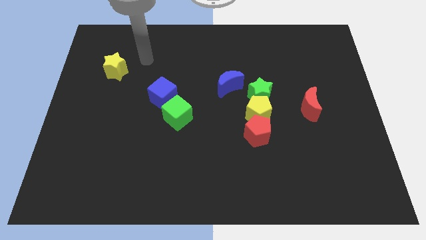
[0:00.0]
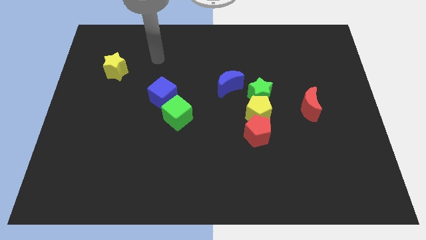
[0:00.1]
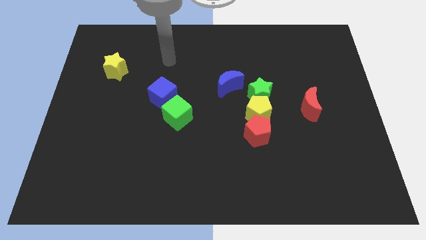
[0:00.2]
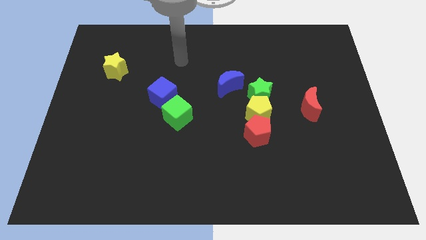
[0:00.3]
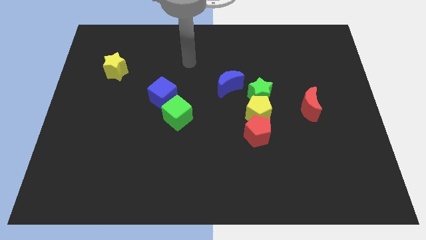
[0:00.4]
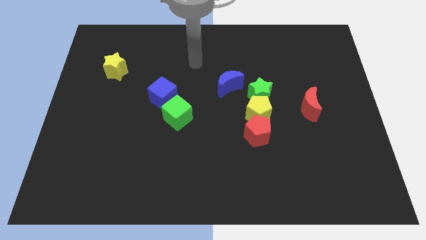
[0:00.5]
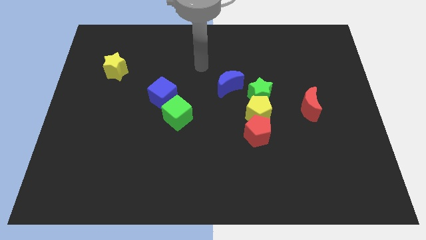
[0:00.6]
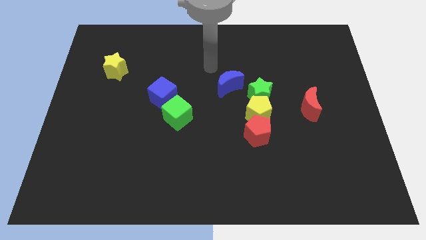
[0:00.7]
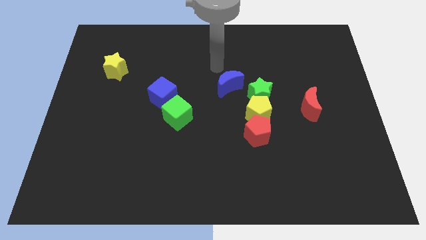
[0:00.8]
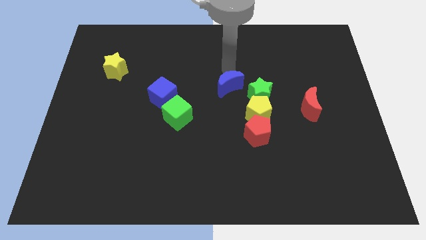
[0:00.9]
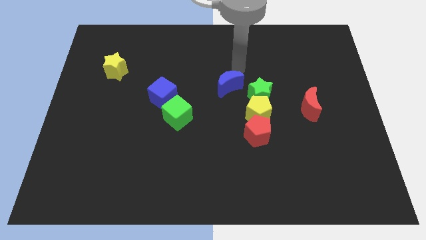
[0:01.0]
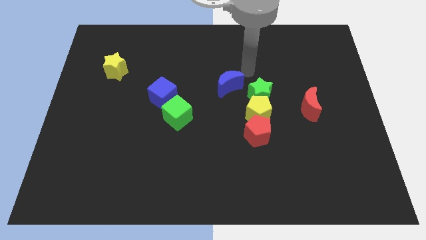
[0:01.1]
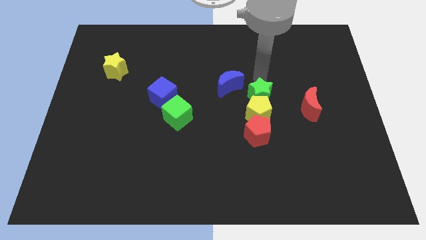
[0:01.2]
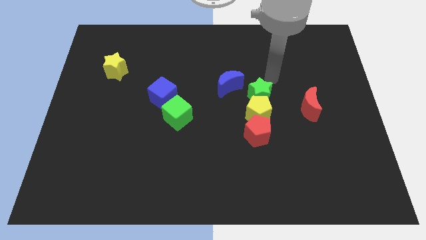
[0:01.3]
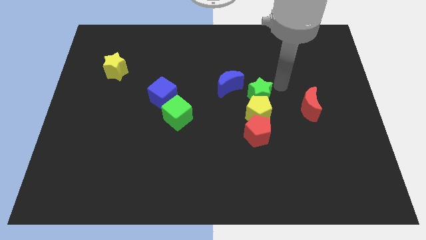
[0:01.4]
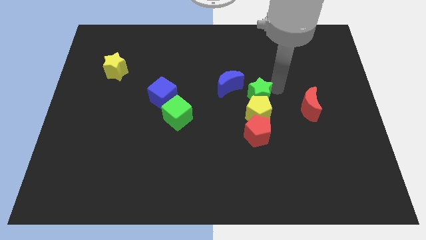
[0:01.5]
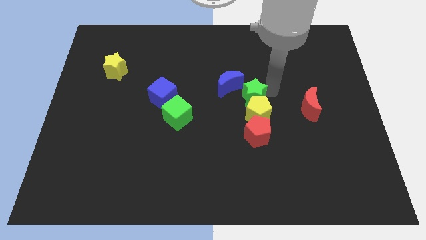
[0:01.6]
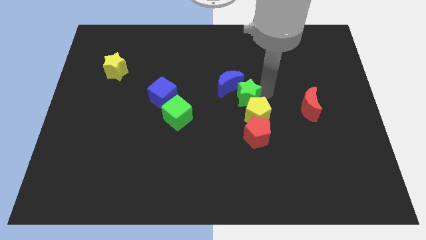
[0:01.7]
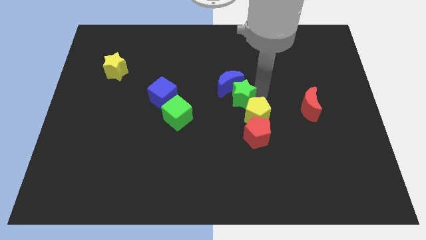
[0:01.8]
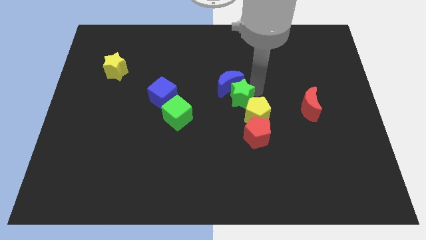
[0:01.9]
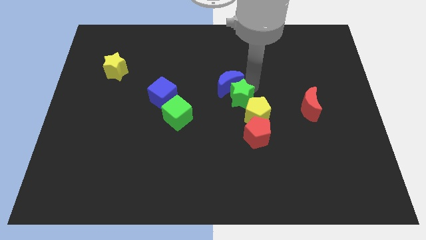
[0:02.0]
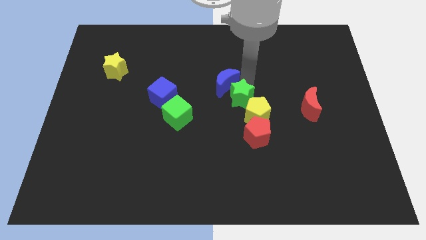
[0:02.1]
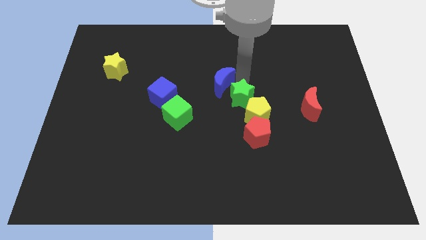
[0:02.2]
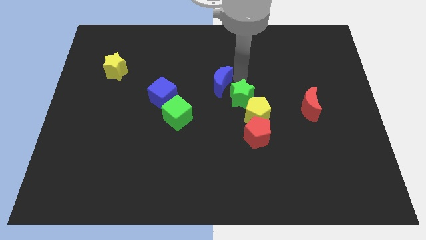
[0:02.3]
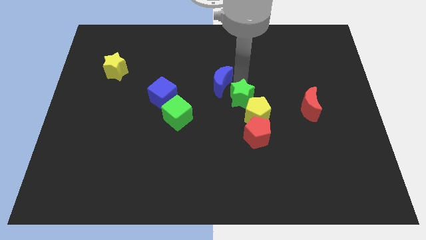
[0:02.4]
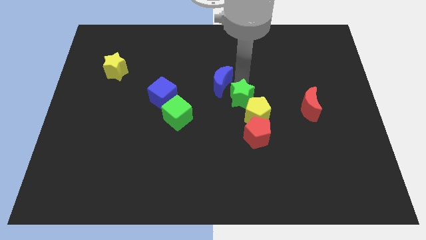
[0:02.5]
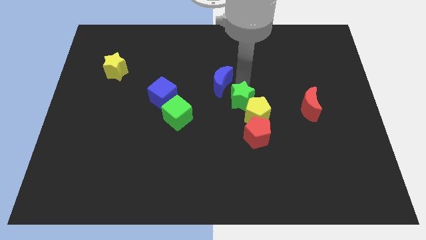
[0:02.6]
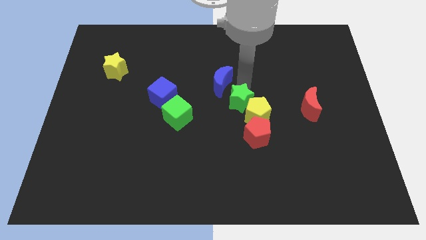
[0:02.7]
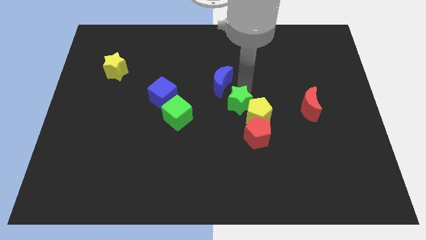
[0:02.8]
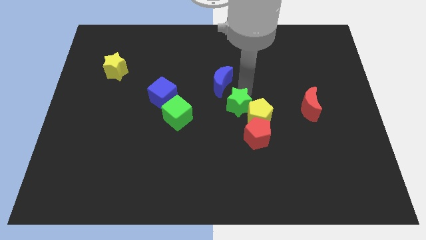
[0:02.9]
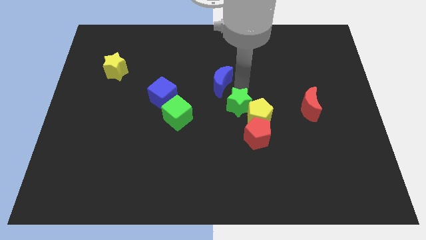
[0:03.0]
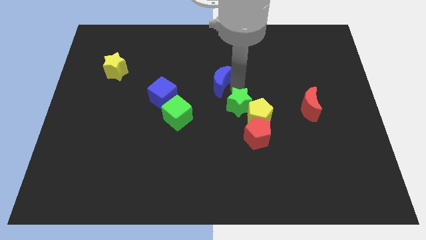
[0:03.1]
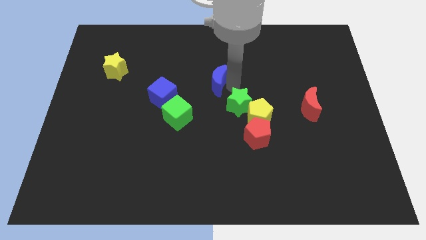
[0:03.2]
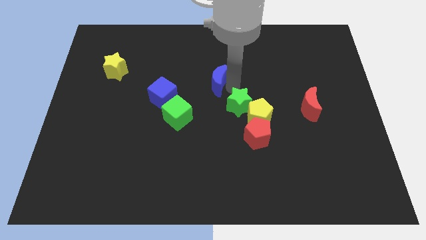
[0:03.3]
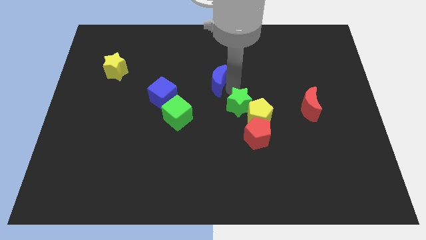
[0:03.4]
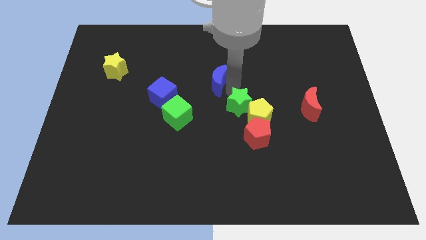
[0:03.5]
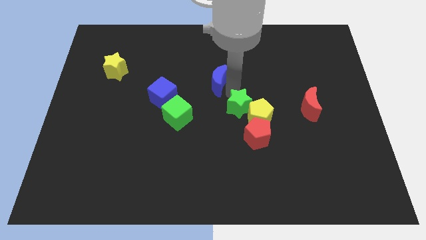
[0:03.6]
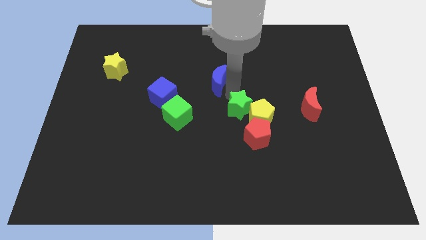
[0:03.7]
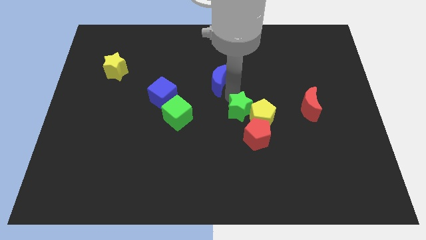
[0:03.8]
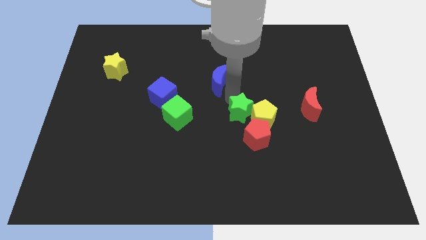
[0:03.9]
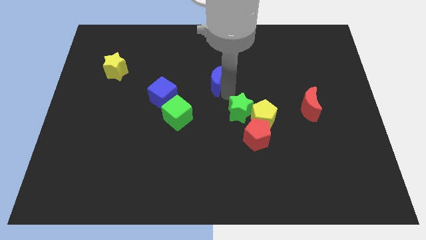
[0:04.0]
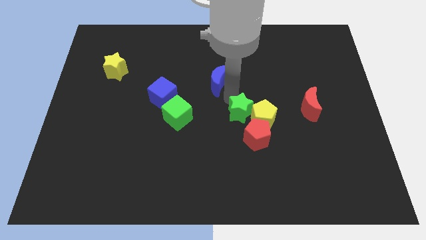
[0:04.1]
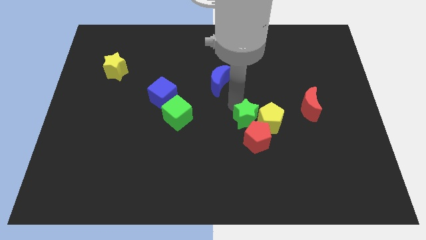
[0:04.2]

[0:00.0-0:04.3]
push the green star next to the red pentagon

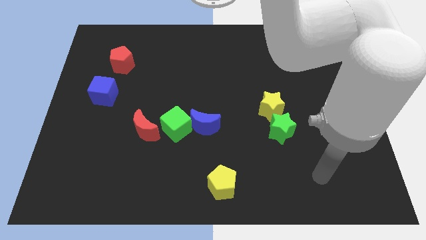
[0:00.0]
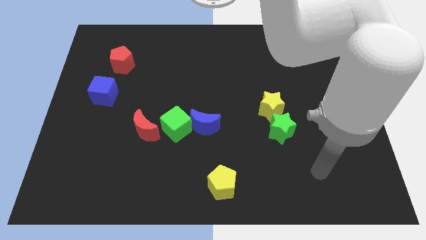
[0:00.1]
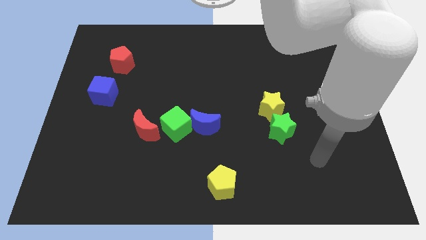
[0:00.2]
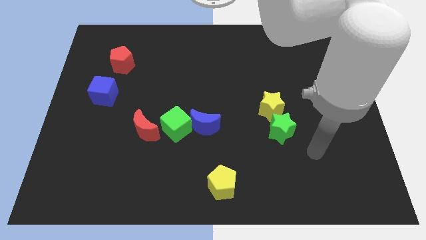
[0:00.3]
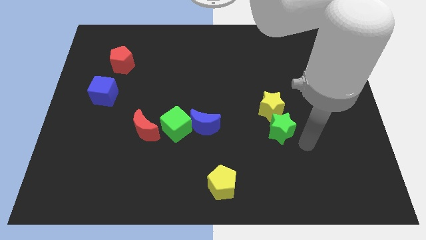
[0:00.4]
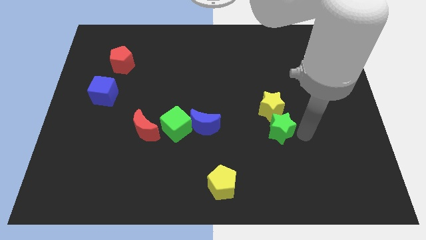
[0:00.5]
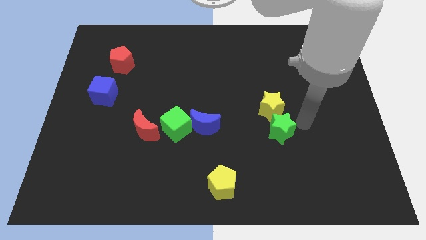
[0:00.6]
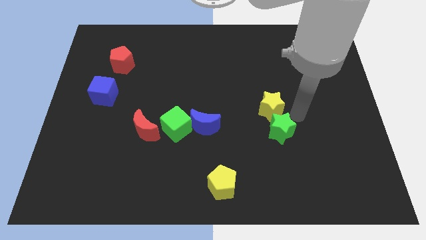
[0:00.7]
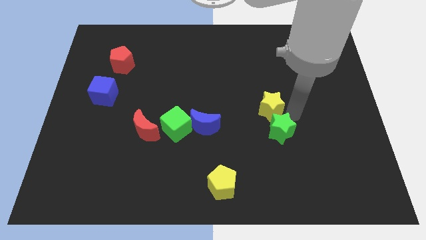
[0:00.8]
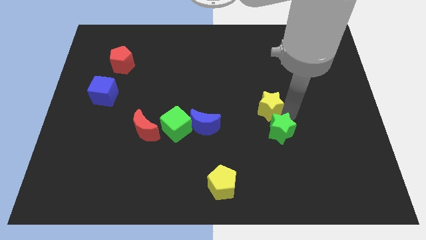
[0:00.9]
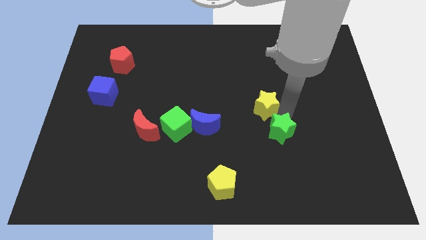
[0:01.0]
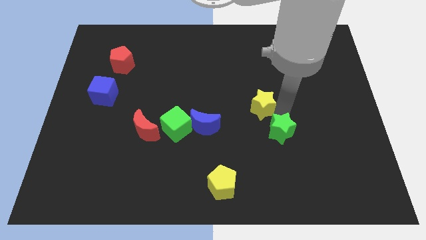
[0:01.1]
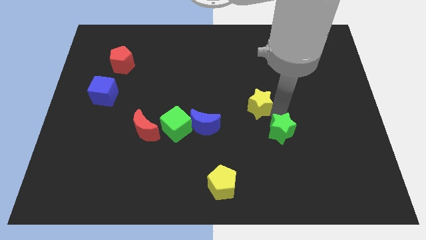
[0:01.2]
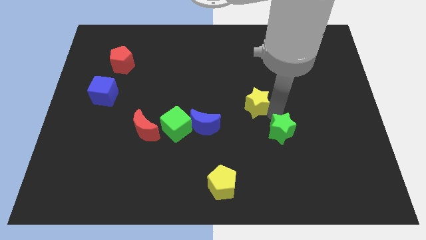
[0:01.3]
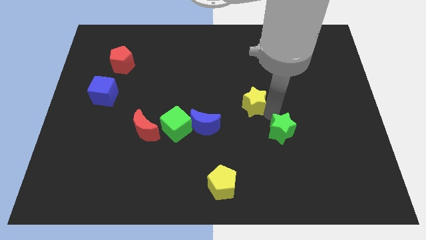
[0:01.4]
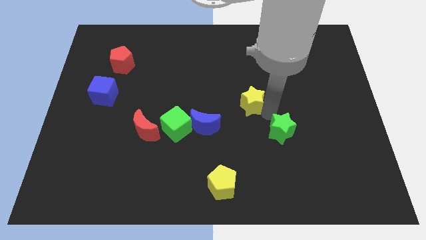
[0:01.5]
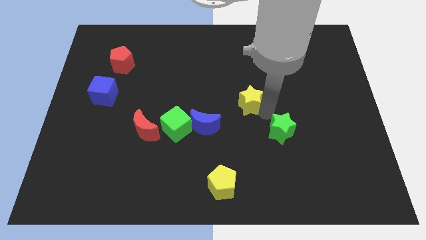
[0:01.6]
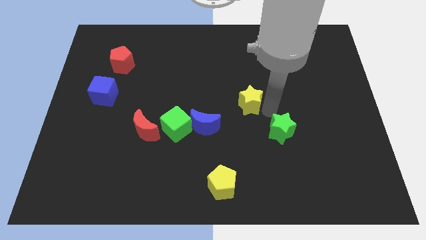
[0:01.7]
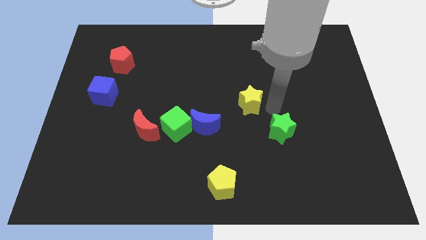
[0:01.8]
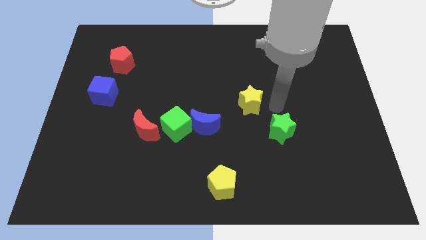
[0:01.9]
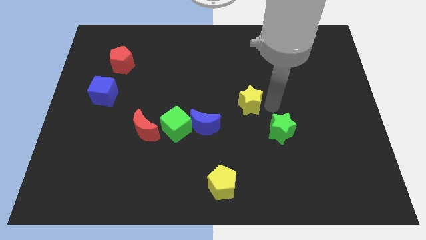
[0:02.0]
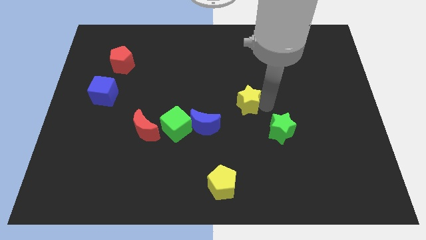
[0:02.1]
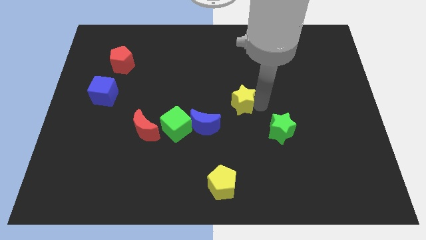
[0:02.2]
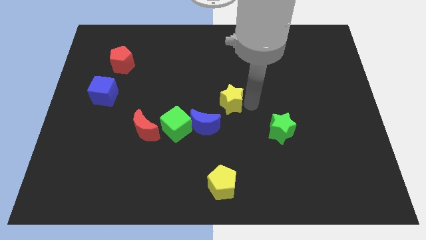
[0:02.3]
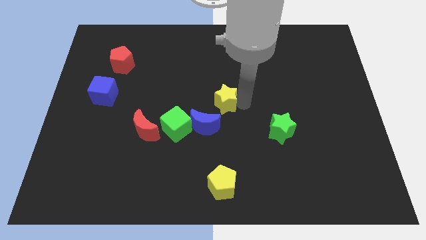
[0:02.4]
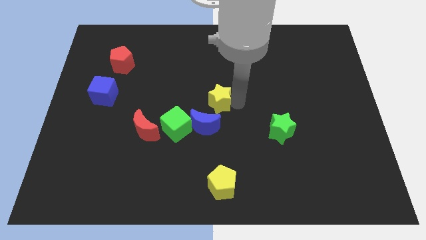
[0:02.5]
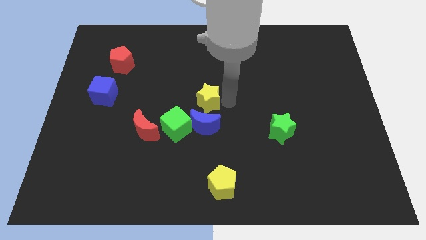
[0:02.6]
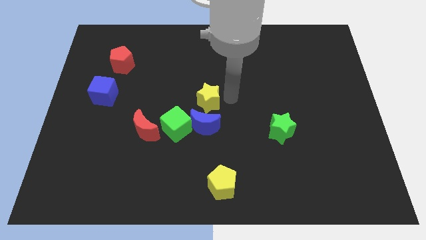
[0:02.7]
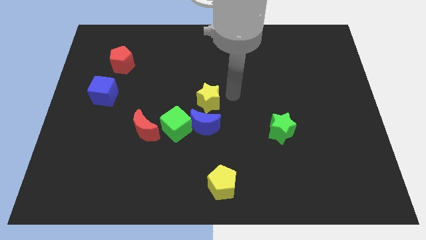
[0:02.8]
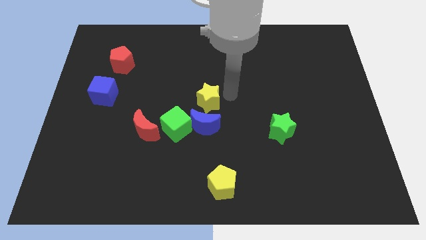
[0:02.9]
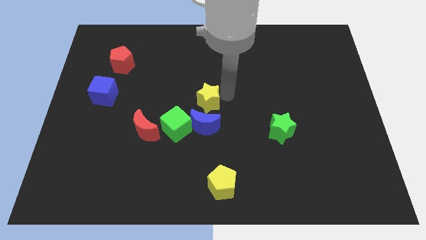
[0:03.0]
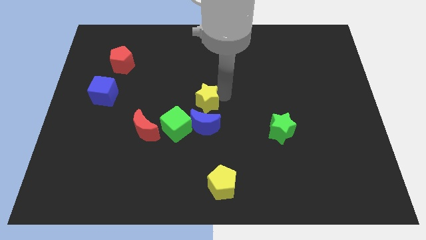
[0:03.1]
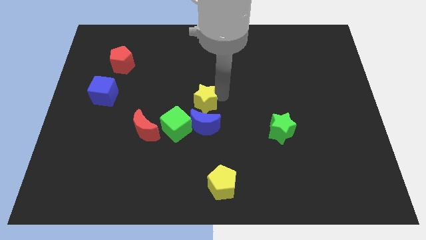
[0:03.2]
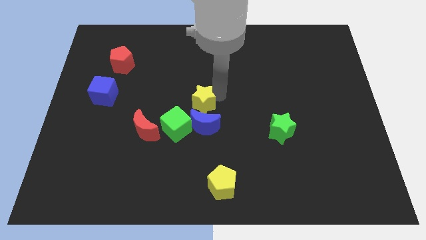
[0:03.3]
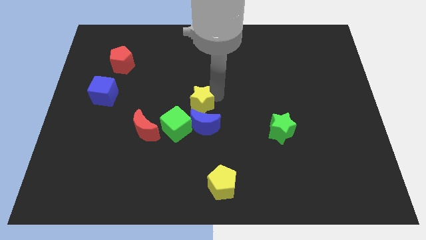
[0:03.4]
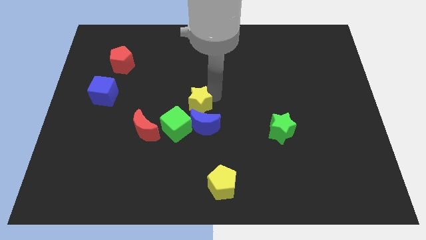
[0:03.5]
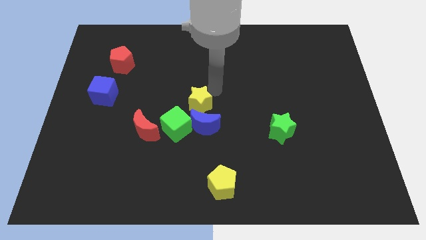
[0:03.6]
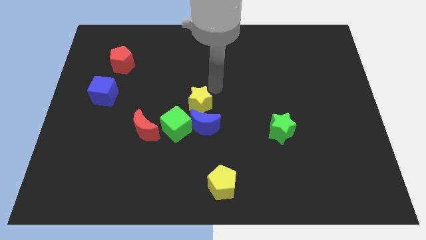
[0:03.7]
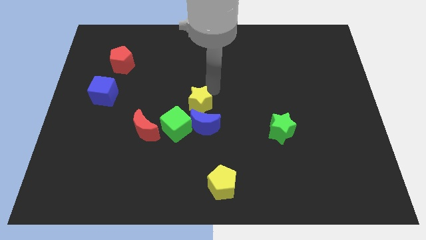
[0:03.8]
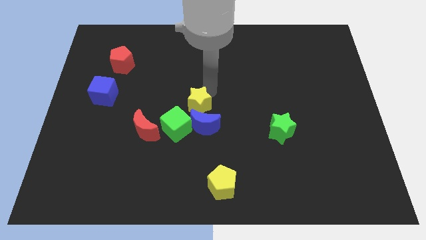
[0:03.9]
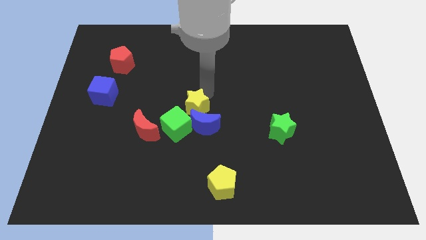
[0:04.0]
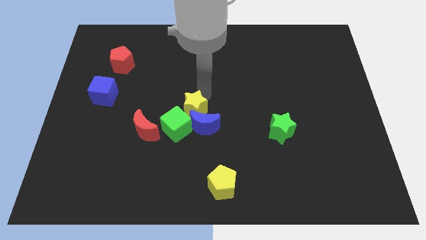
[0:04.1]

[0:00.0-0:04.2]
move the yellow star towards the green cube
